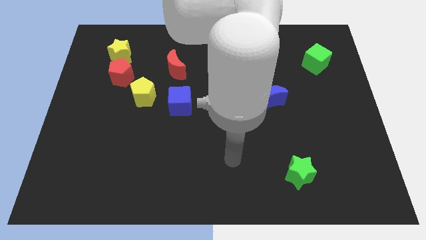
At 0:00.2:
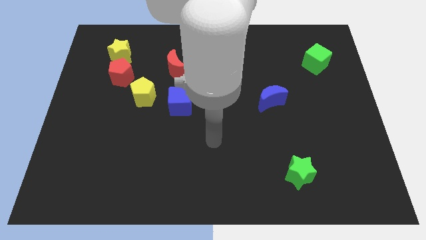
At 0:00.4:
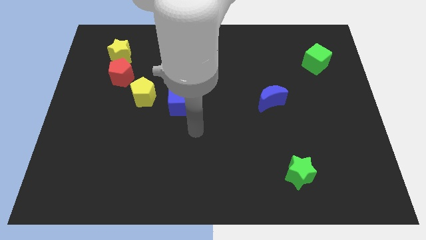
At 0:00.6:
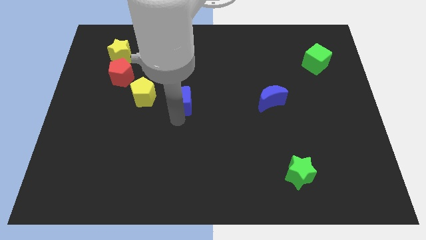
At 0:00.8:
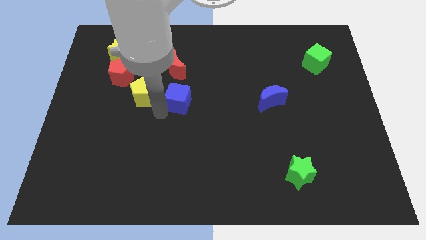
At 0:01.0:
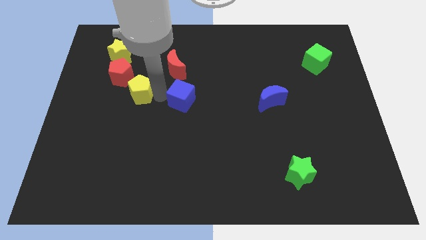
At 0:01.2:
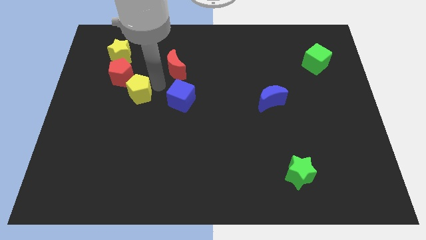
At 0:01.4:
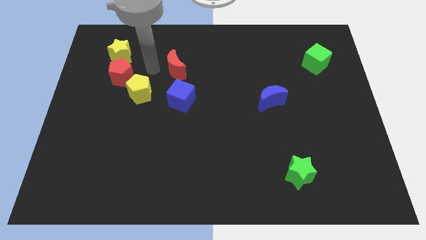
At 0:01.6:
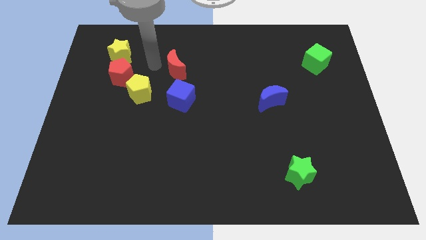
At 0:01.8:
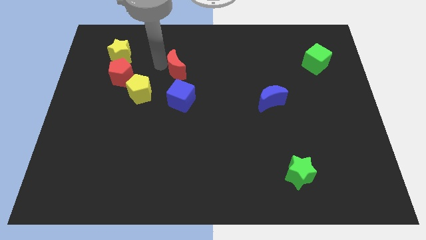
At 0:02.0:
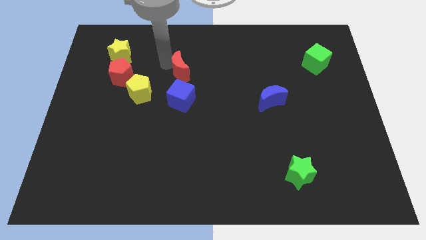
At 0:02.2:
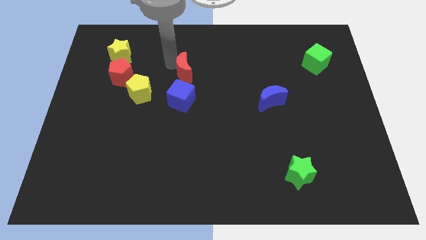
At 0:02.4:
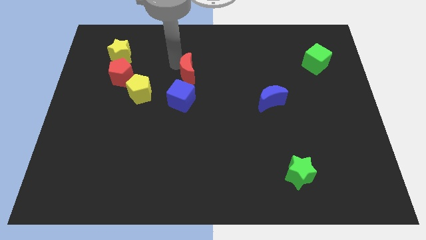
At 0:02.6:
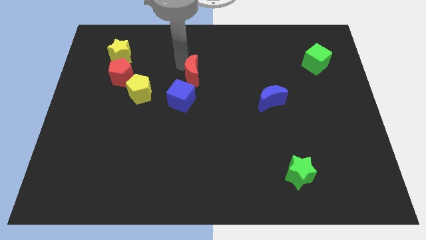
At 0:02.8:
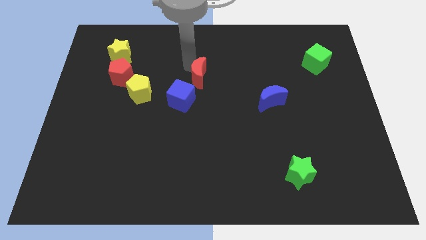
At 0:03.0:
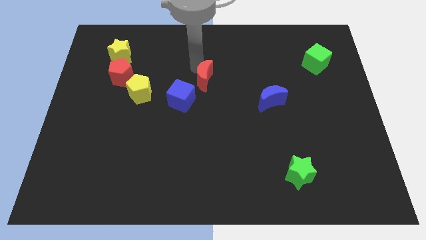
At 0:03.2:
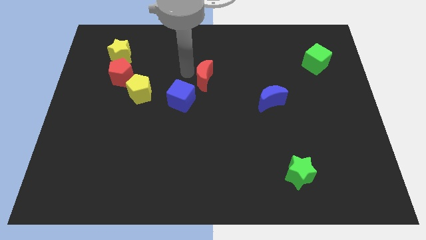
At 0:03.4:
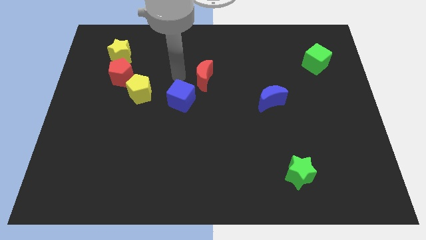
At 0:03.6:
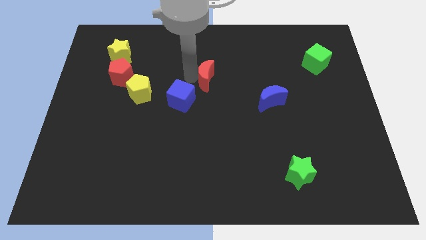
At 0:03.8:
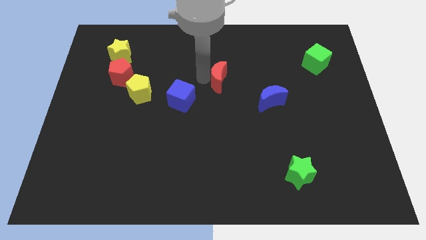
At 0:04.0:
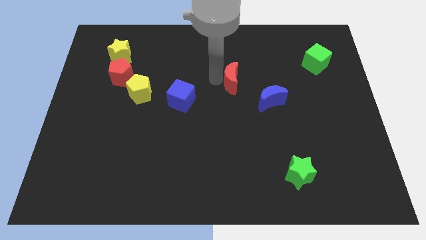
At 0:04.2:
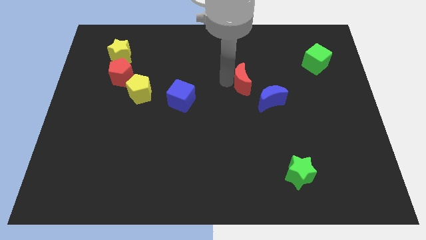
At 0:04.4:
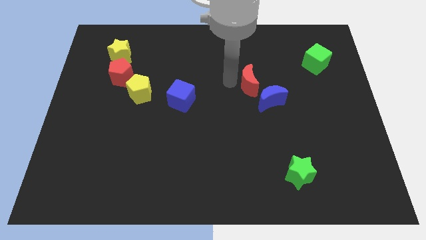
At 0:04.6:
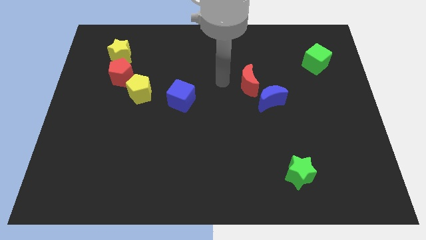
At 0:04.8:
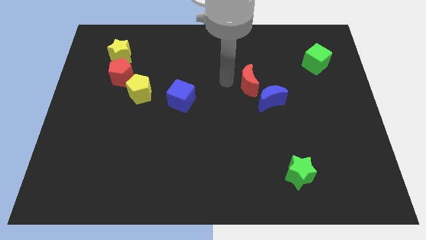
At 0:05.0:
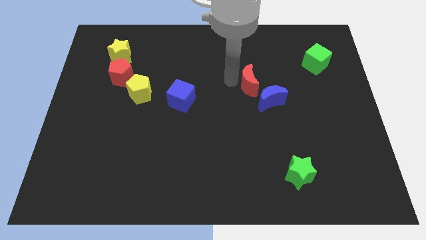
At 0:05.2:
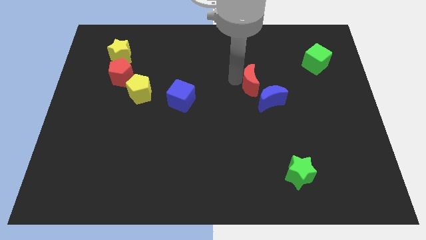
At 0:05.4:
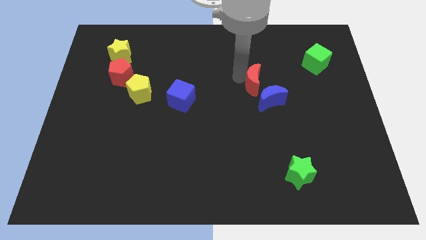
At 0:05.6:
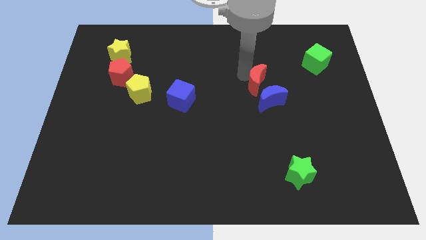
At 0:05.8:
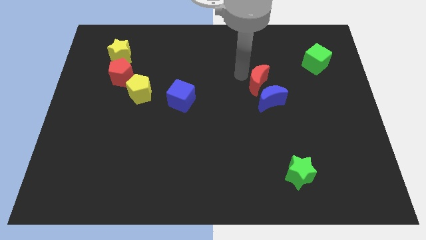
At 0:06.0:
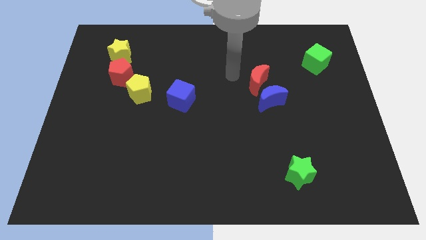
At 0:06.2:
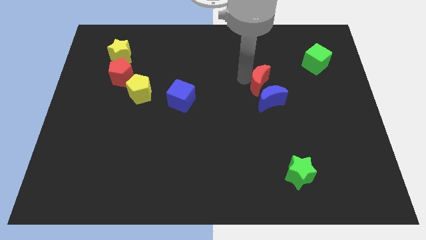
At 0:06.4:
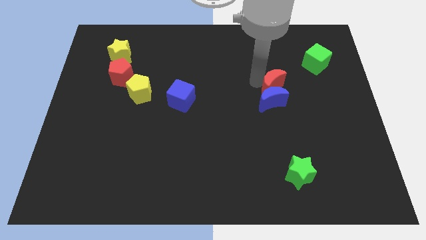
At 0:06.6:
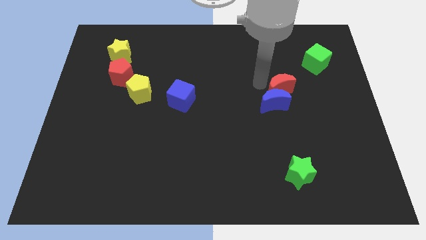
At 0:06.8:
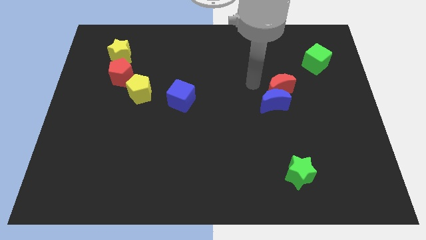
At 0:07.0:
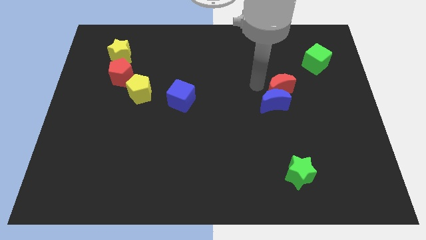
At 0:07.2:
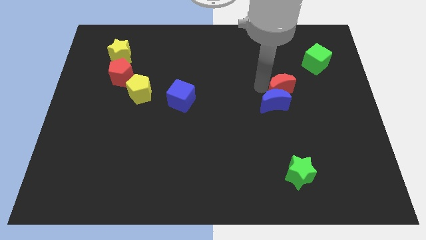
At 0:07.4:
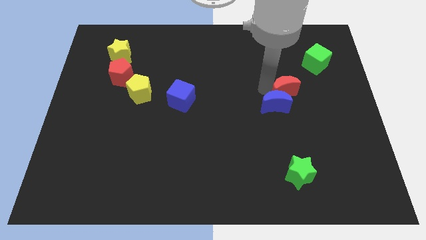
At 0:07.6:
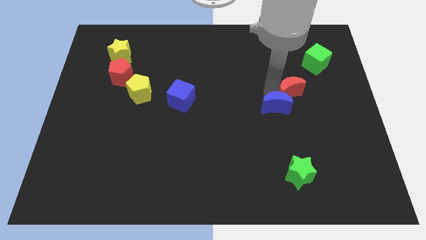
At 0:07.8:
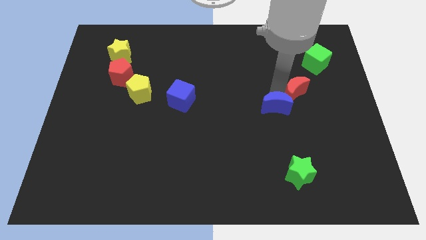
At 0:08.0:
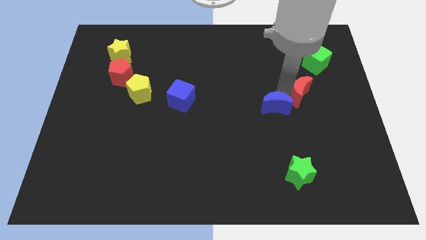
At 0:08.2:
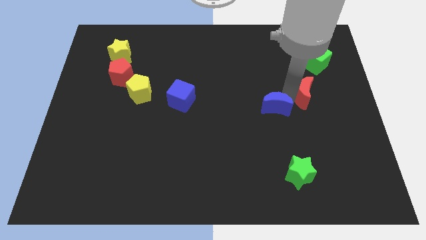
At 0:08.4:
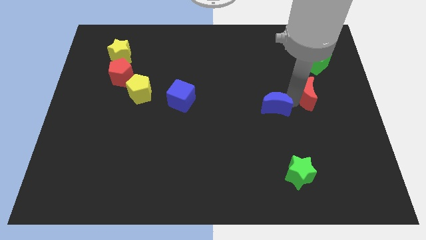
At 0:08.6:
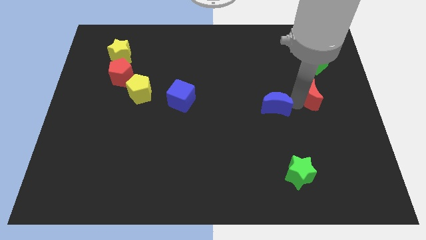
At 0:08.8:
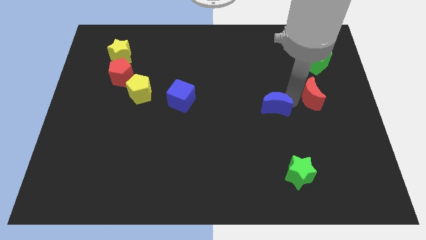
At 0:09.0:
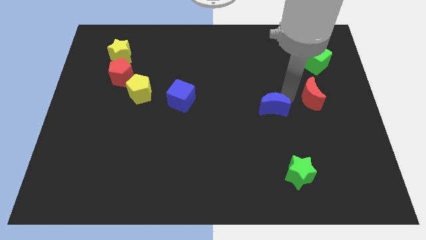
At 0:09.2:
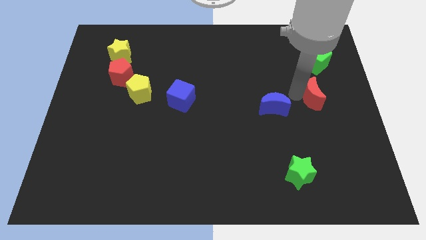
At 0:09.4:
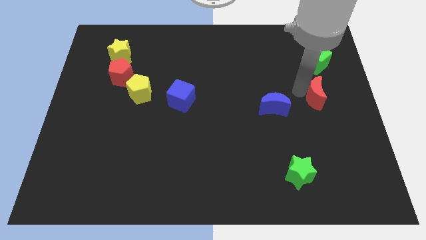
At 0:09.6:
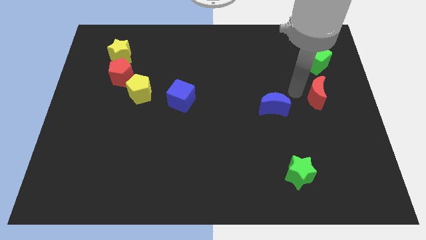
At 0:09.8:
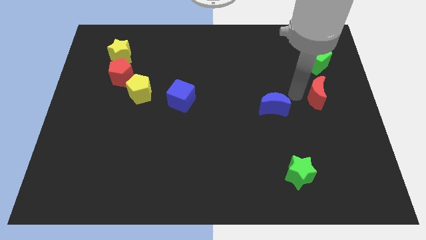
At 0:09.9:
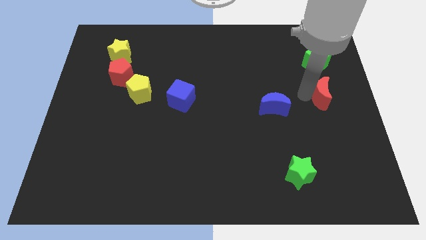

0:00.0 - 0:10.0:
put the red moon to the right side

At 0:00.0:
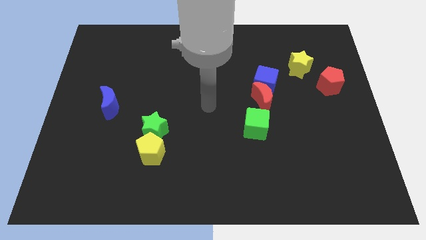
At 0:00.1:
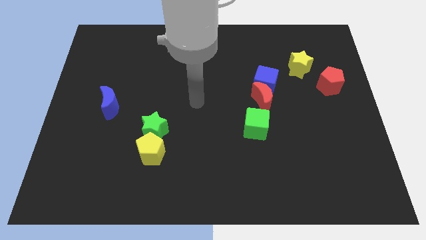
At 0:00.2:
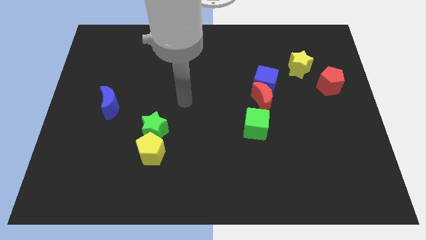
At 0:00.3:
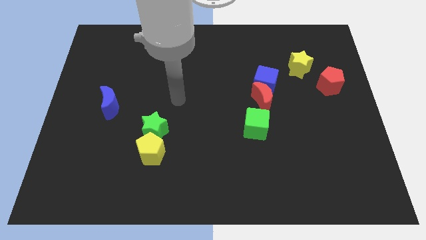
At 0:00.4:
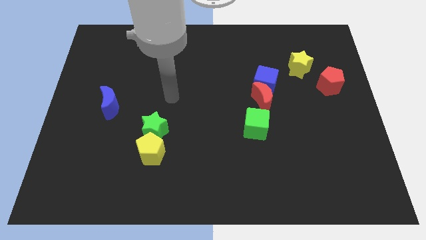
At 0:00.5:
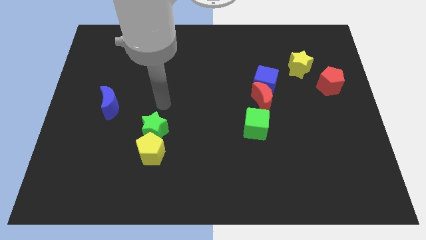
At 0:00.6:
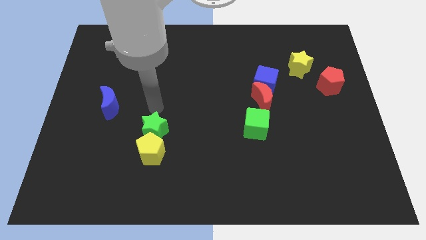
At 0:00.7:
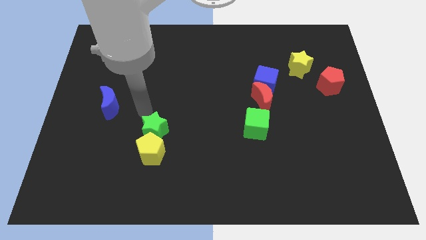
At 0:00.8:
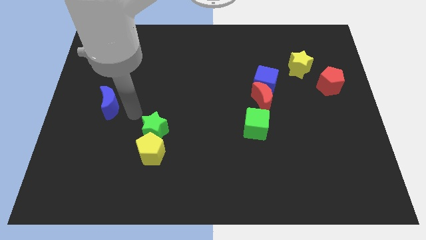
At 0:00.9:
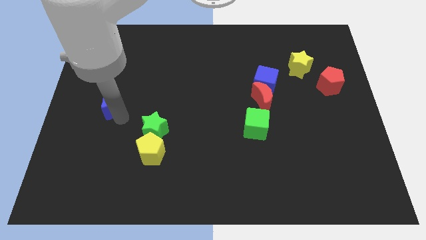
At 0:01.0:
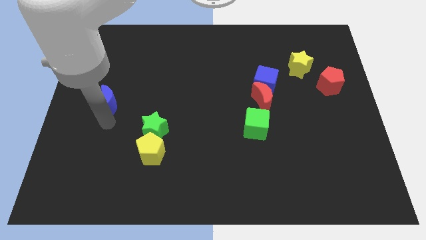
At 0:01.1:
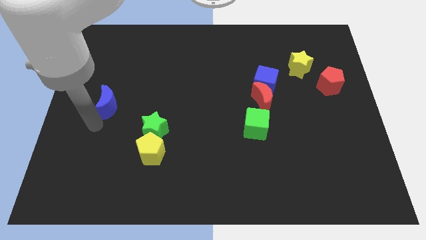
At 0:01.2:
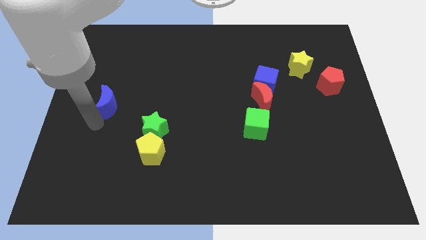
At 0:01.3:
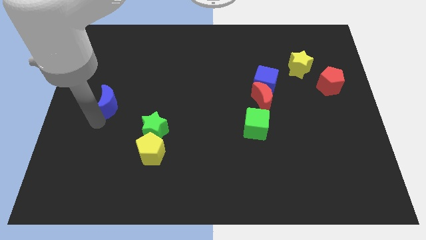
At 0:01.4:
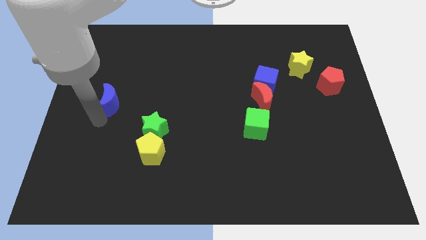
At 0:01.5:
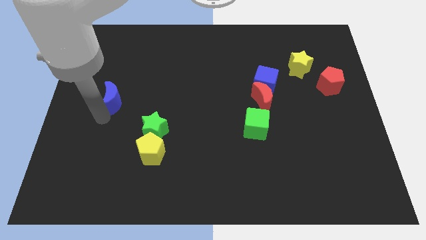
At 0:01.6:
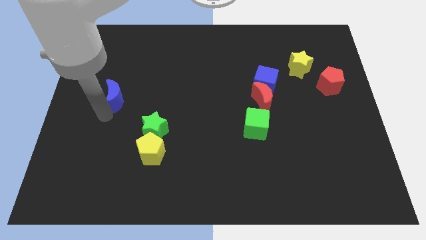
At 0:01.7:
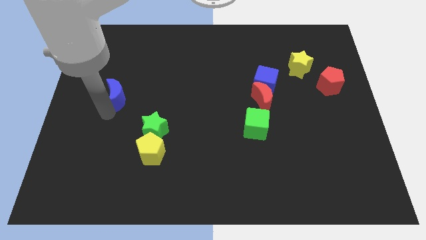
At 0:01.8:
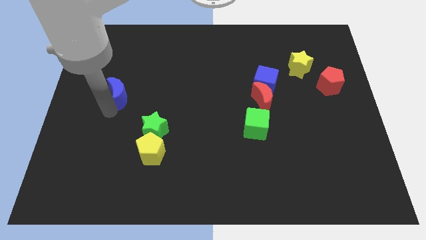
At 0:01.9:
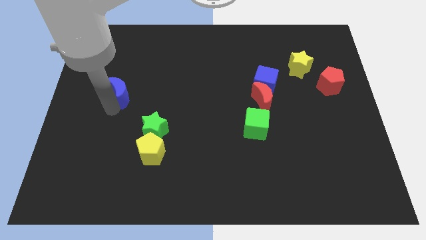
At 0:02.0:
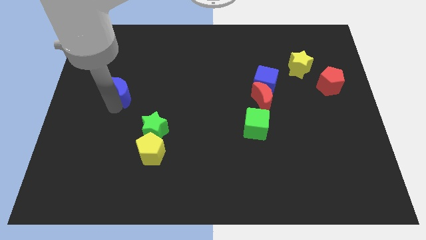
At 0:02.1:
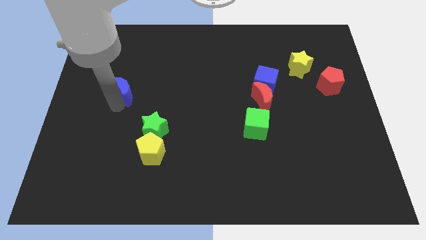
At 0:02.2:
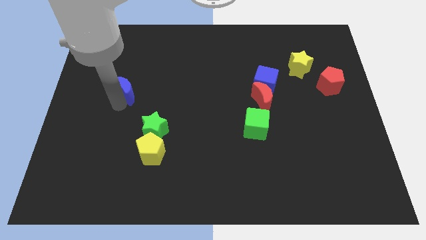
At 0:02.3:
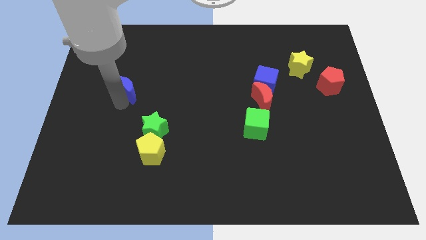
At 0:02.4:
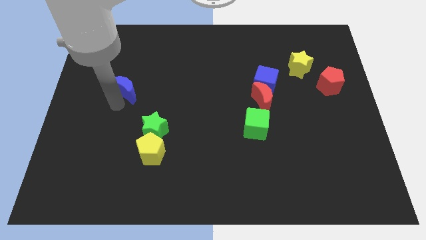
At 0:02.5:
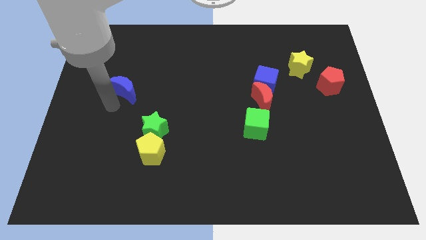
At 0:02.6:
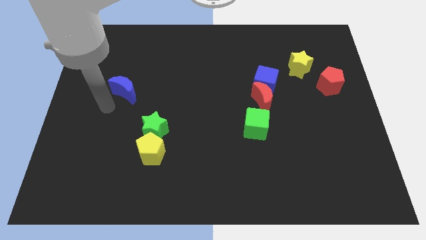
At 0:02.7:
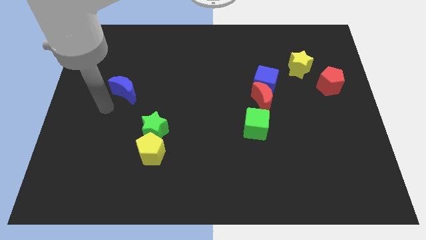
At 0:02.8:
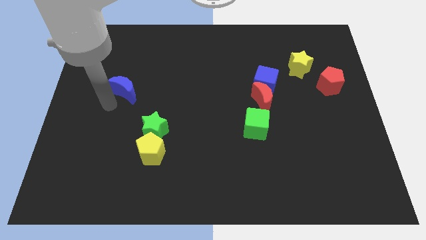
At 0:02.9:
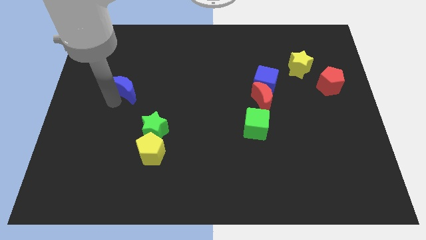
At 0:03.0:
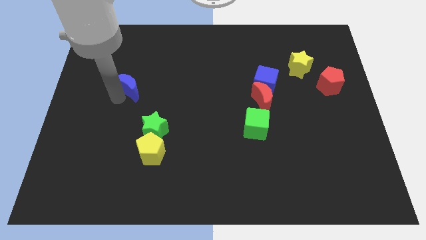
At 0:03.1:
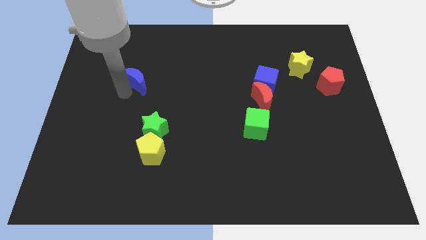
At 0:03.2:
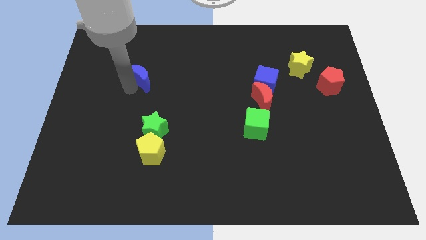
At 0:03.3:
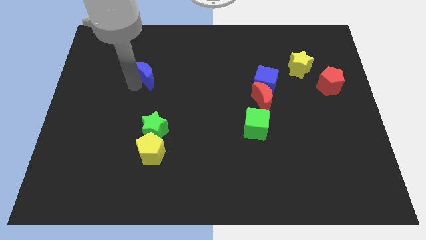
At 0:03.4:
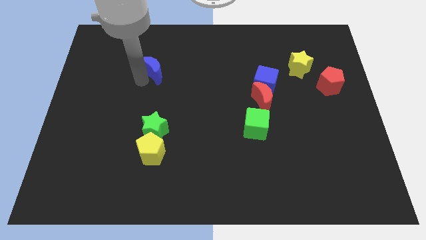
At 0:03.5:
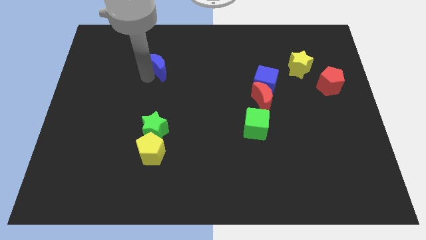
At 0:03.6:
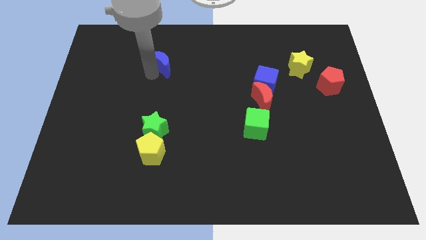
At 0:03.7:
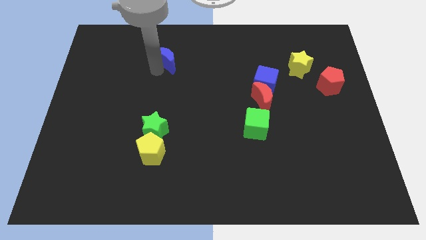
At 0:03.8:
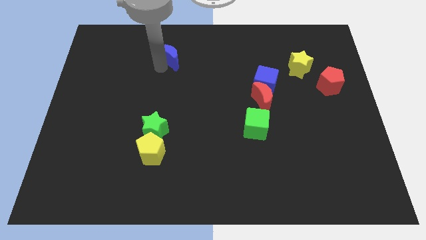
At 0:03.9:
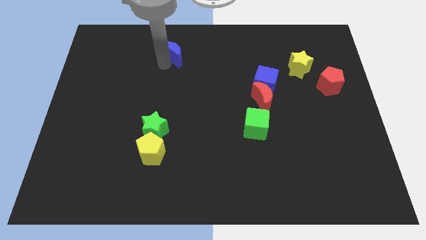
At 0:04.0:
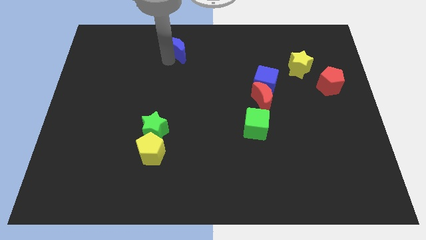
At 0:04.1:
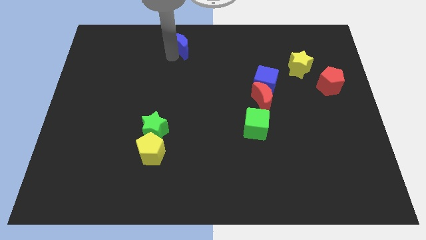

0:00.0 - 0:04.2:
put the blue moon to the towards your base
